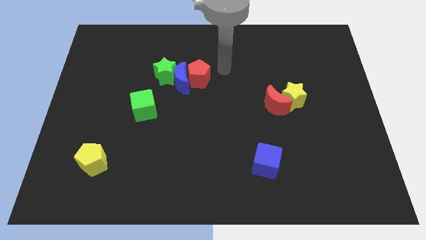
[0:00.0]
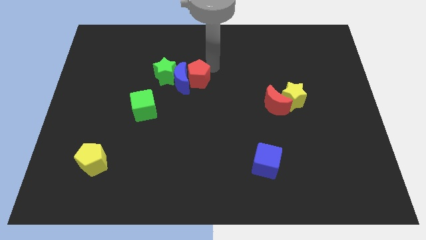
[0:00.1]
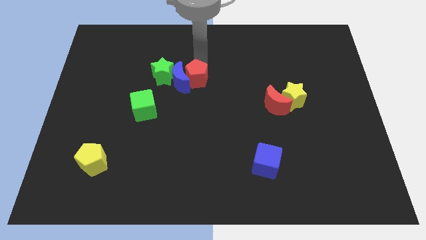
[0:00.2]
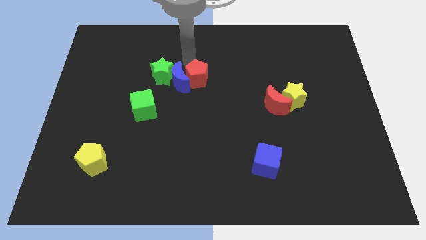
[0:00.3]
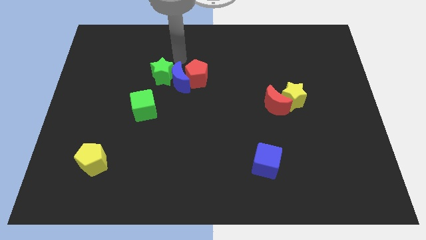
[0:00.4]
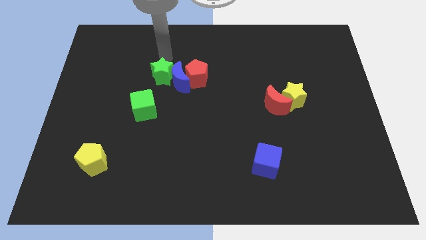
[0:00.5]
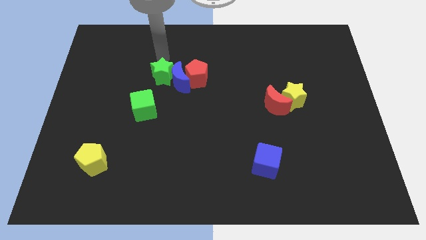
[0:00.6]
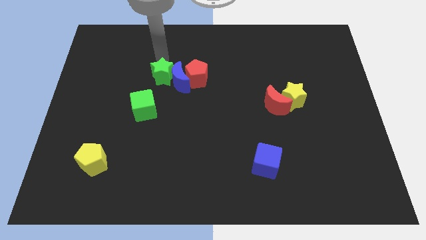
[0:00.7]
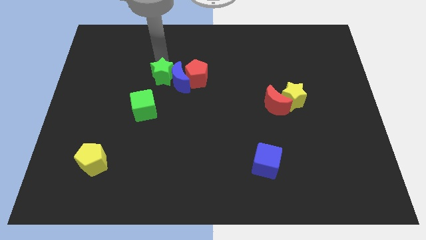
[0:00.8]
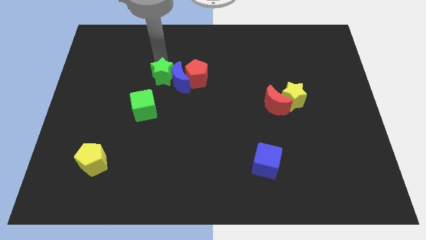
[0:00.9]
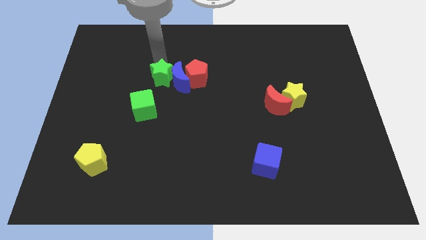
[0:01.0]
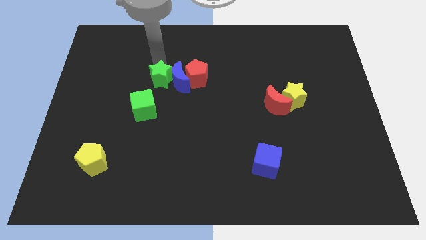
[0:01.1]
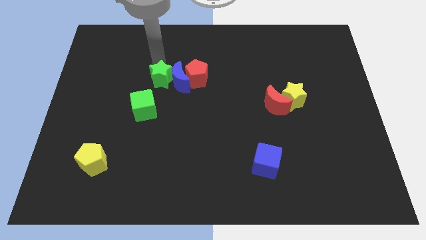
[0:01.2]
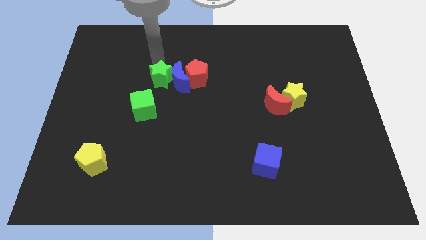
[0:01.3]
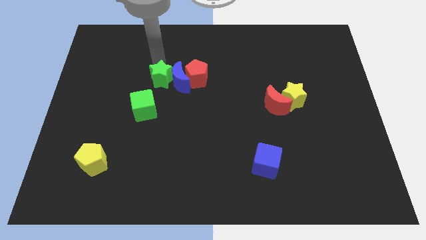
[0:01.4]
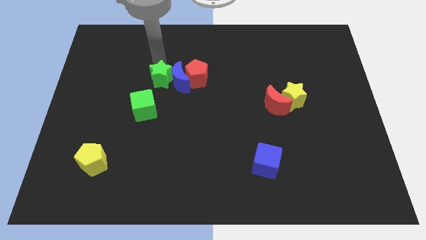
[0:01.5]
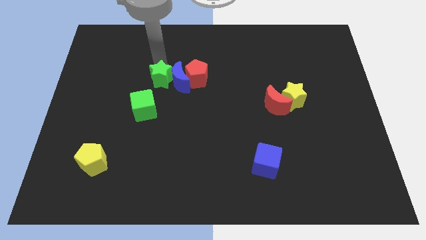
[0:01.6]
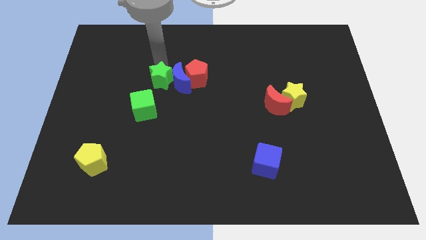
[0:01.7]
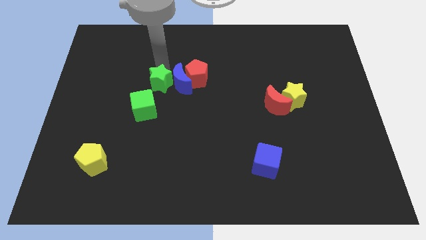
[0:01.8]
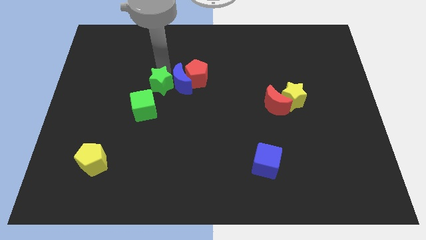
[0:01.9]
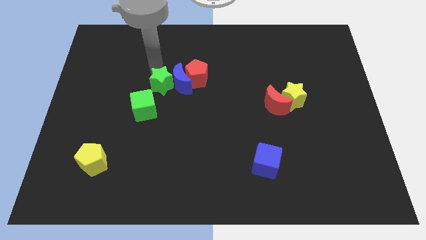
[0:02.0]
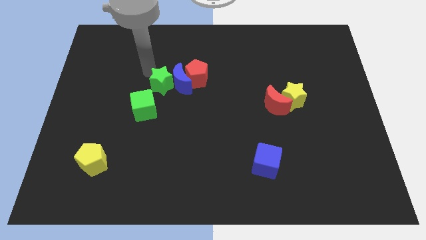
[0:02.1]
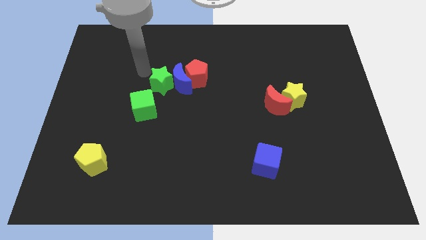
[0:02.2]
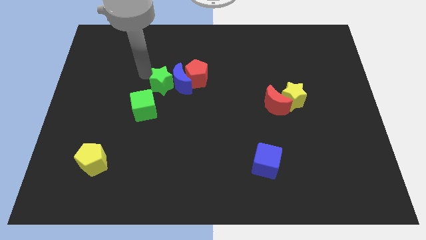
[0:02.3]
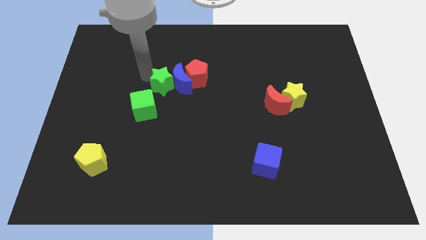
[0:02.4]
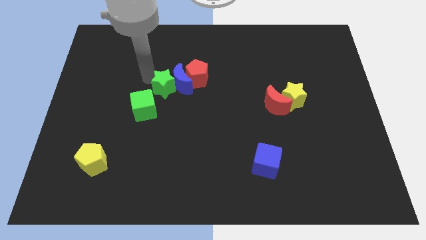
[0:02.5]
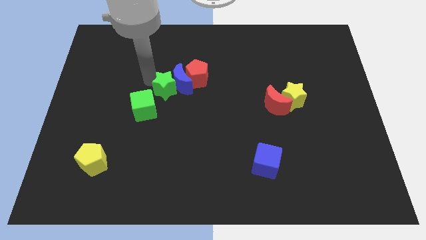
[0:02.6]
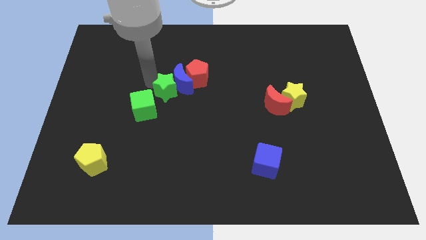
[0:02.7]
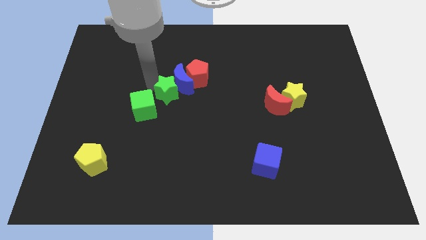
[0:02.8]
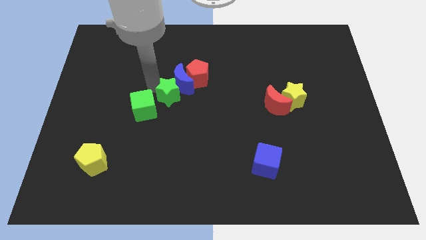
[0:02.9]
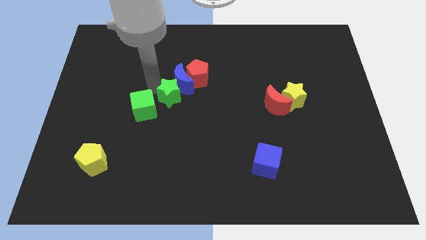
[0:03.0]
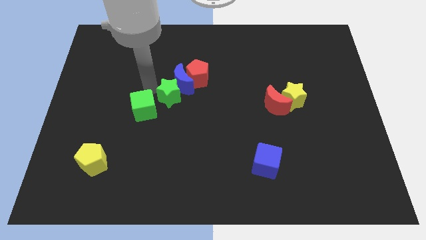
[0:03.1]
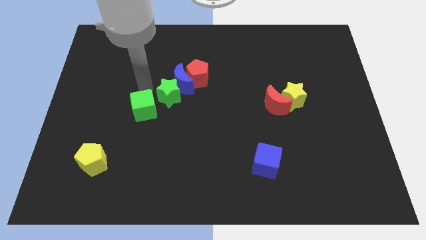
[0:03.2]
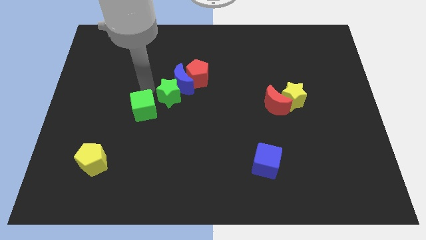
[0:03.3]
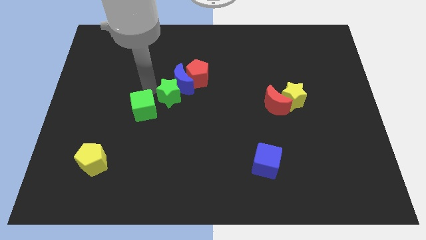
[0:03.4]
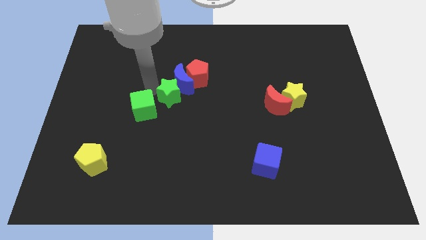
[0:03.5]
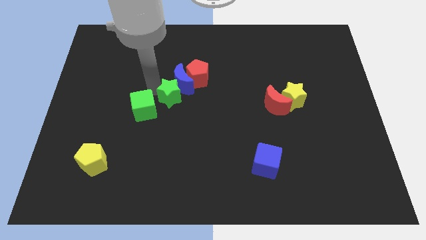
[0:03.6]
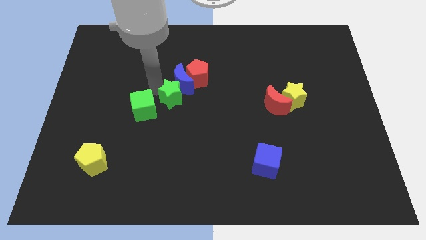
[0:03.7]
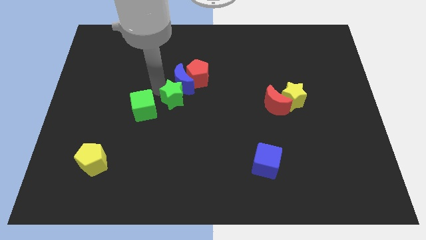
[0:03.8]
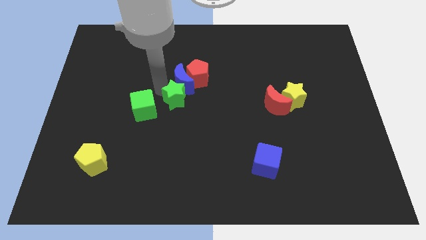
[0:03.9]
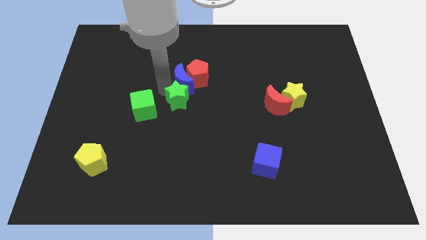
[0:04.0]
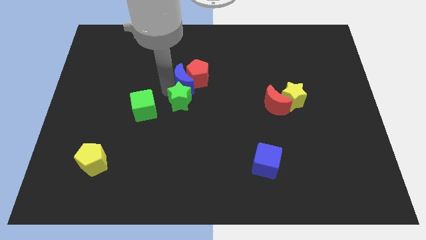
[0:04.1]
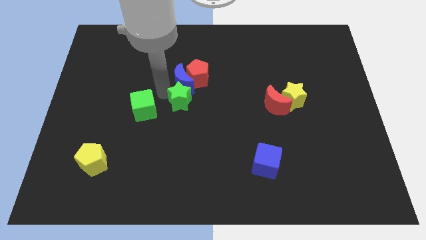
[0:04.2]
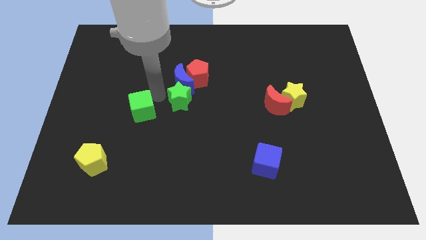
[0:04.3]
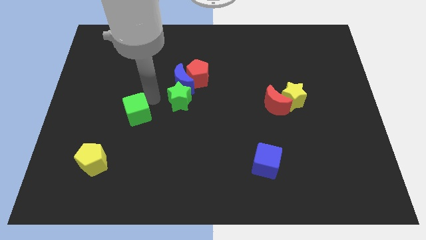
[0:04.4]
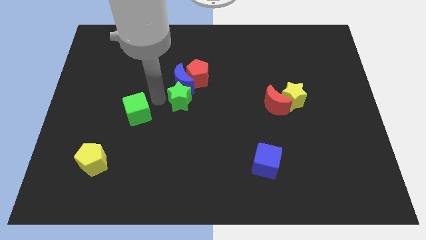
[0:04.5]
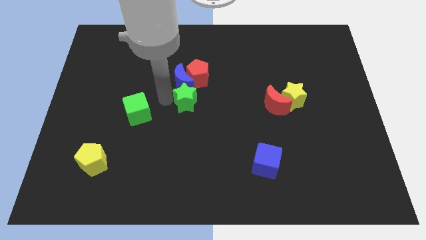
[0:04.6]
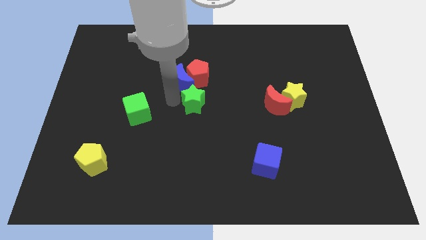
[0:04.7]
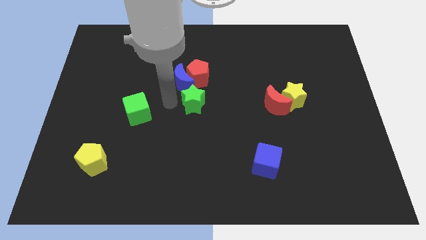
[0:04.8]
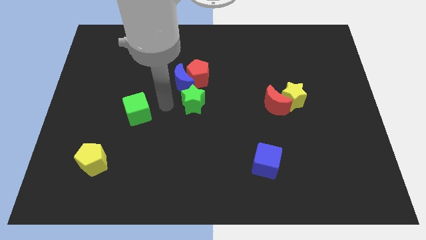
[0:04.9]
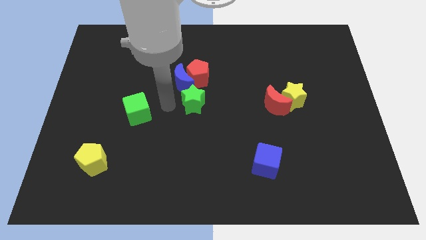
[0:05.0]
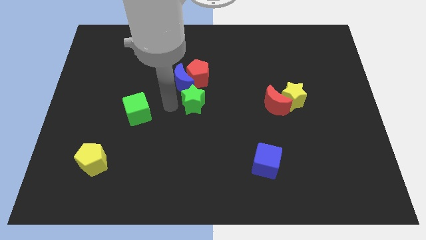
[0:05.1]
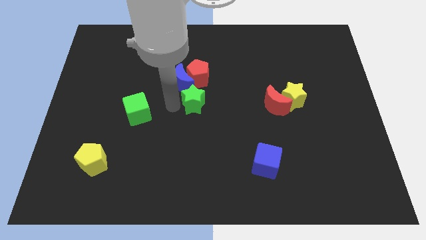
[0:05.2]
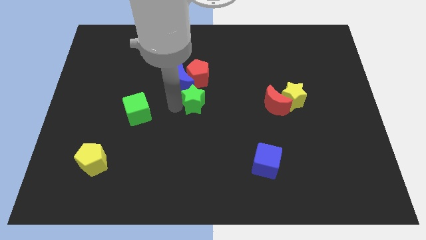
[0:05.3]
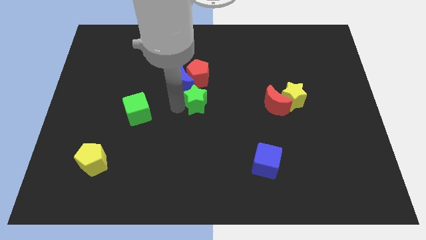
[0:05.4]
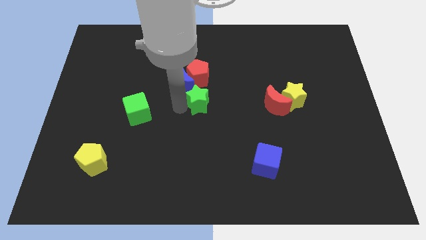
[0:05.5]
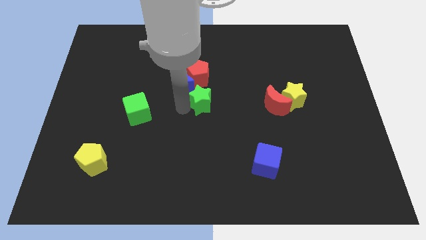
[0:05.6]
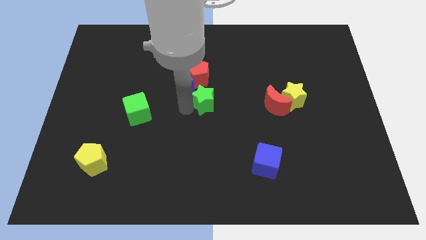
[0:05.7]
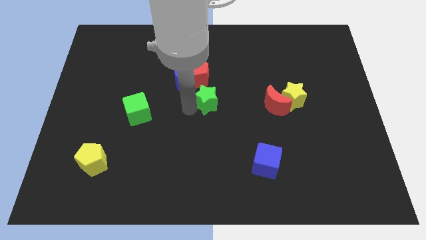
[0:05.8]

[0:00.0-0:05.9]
push the green star diagonally down and to the right of the red pentagon

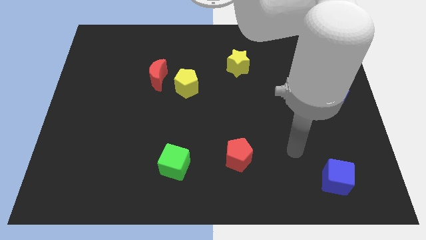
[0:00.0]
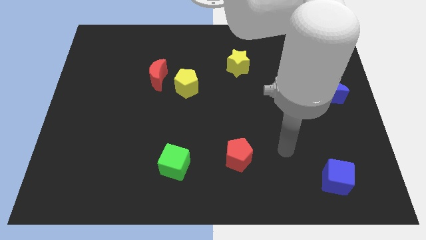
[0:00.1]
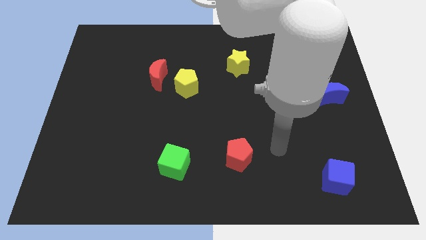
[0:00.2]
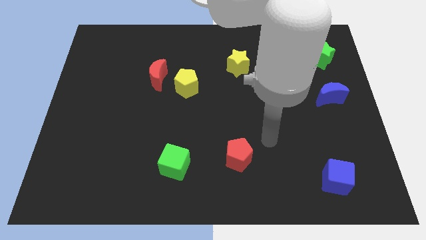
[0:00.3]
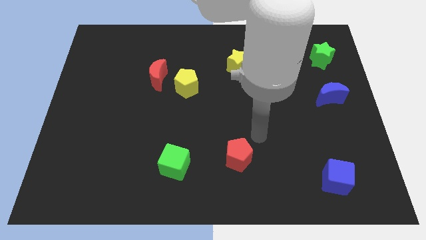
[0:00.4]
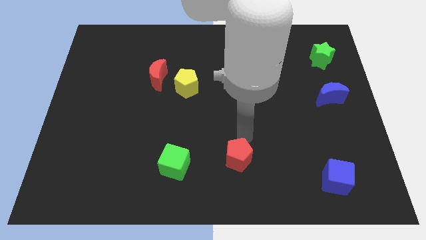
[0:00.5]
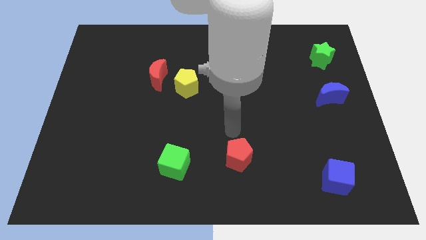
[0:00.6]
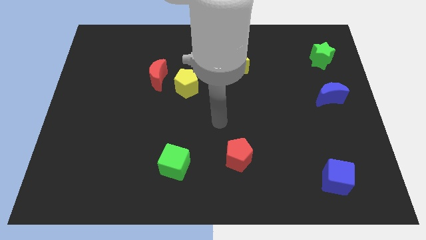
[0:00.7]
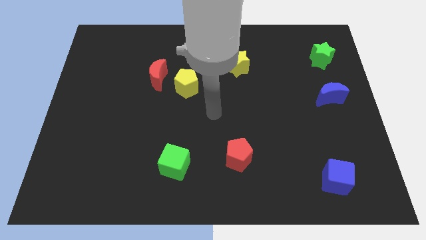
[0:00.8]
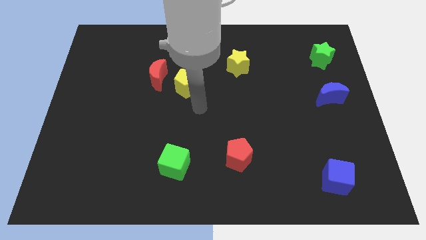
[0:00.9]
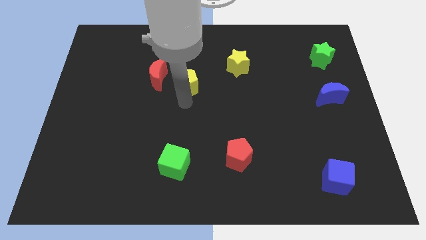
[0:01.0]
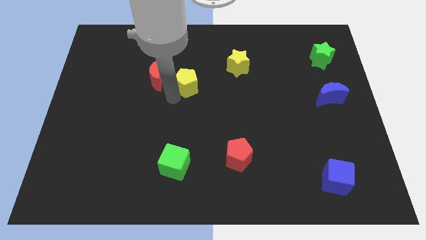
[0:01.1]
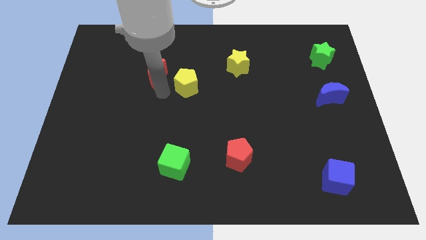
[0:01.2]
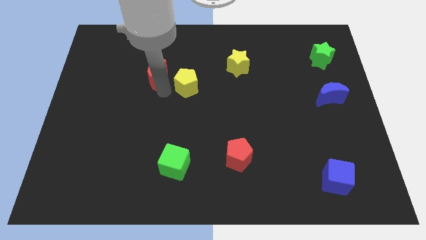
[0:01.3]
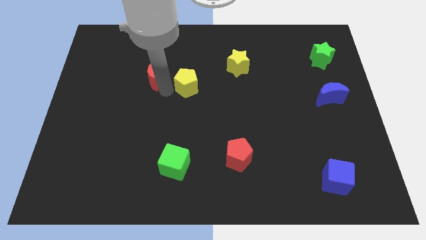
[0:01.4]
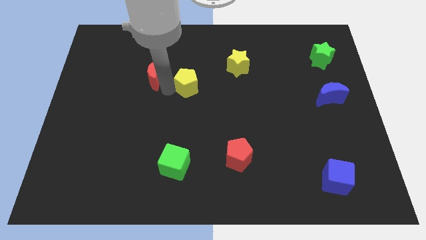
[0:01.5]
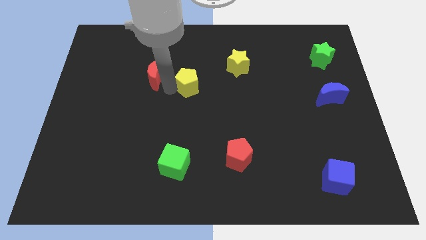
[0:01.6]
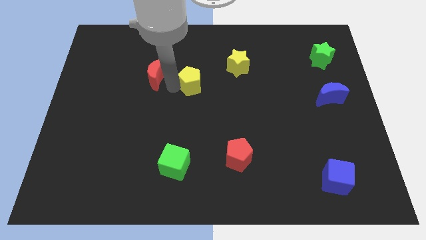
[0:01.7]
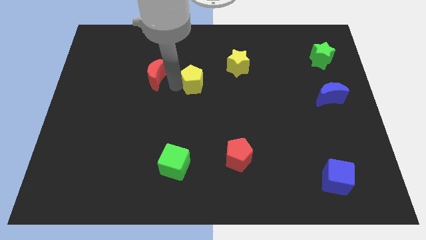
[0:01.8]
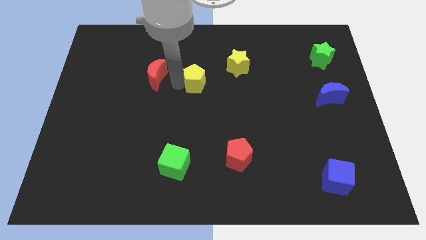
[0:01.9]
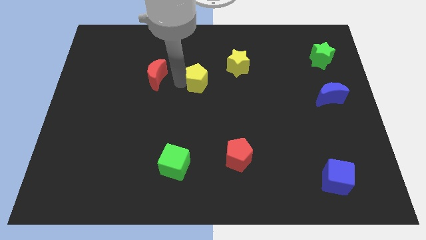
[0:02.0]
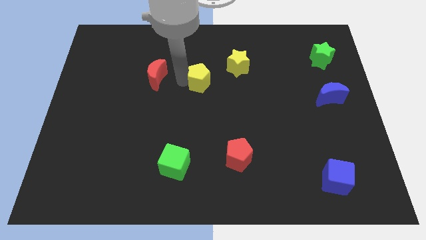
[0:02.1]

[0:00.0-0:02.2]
push the yellow pentagon to the bottom left side of the yellow star
